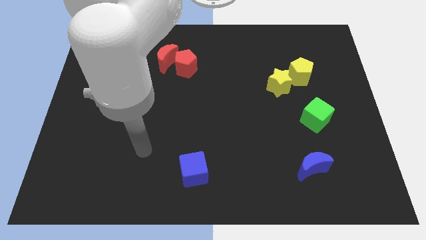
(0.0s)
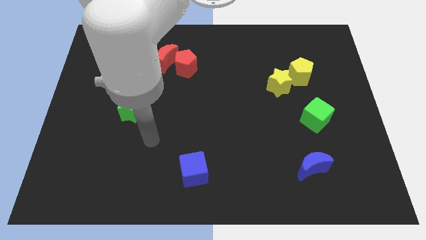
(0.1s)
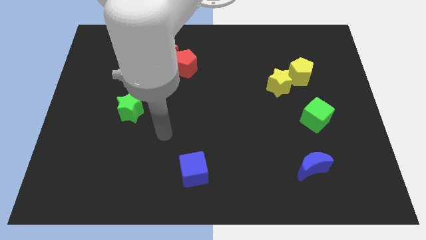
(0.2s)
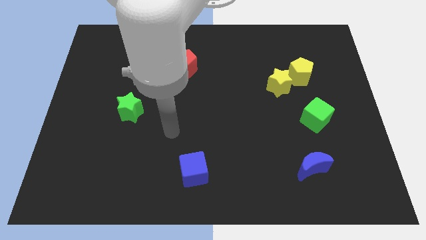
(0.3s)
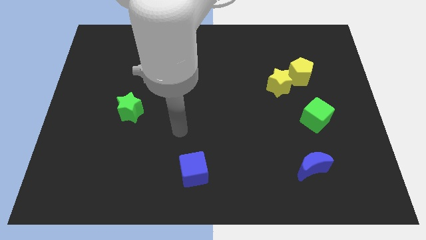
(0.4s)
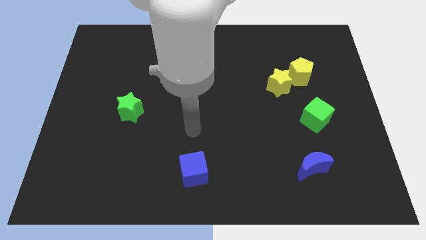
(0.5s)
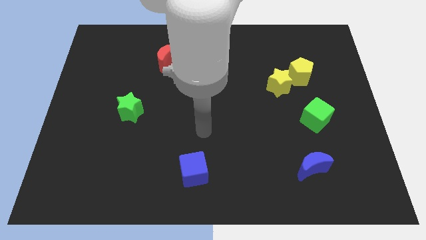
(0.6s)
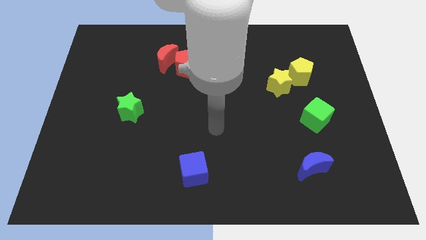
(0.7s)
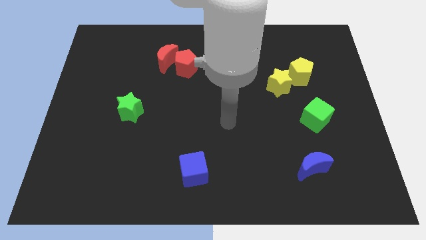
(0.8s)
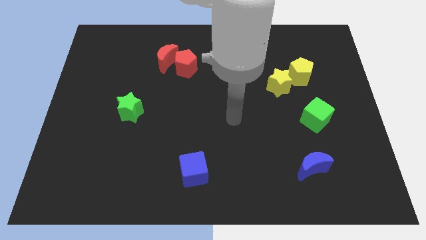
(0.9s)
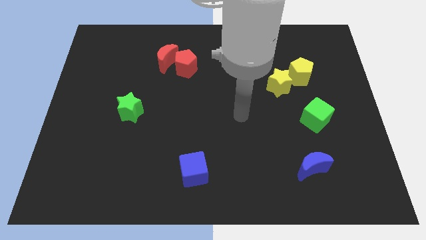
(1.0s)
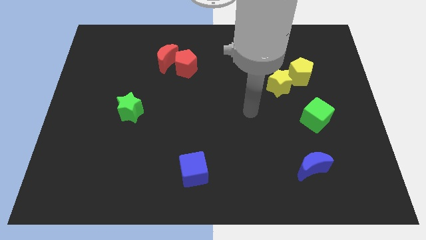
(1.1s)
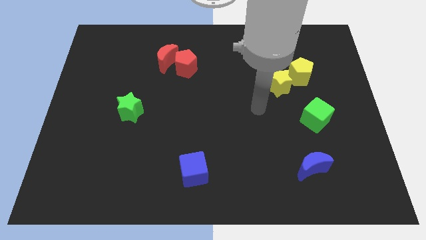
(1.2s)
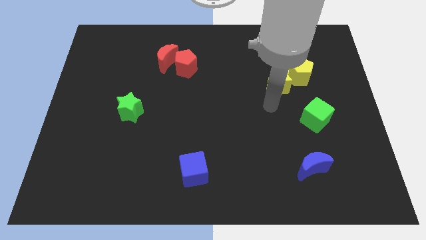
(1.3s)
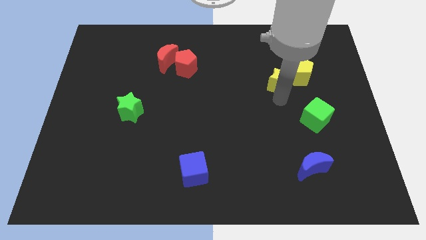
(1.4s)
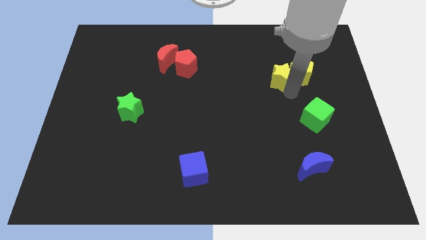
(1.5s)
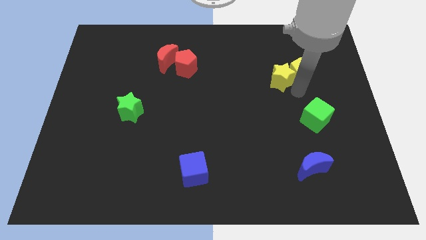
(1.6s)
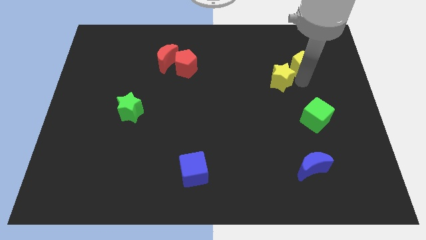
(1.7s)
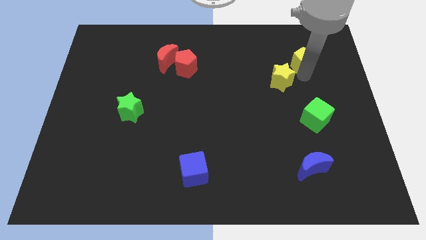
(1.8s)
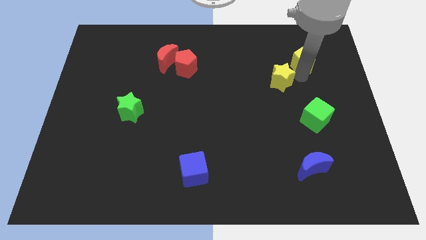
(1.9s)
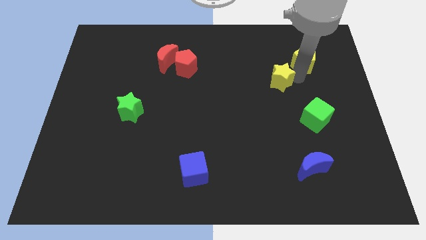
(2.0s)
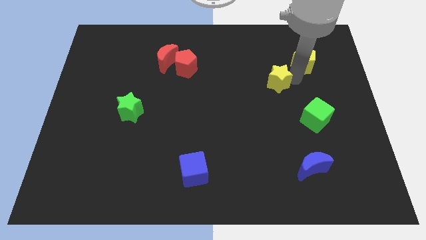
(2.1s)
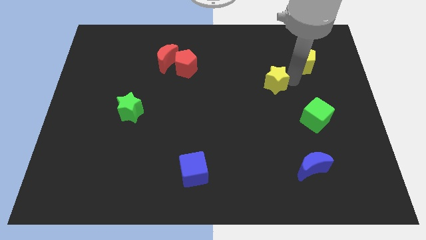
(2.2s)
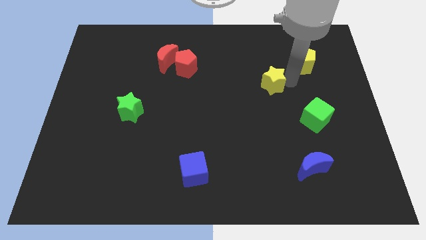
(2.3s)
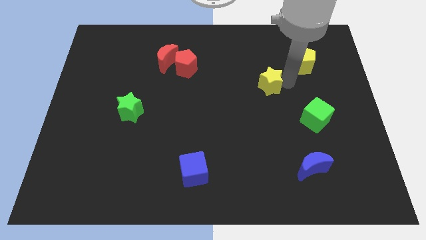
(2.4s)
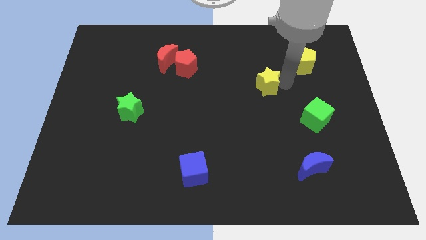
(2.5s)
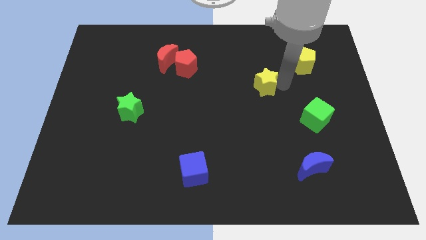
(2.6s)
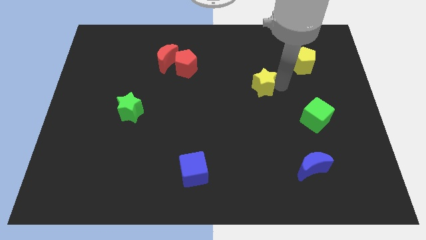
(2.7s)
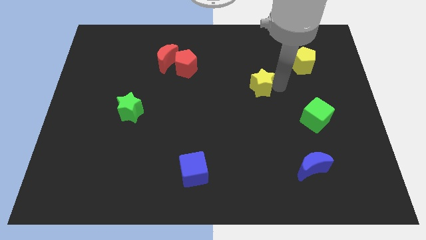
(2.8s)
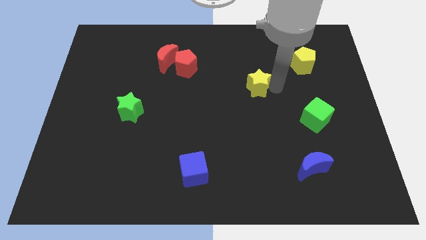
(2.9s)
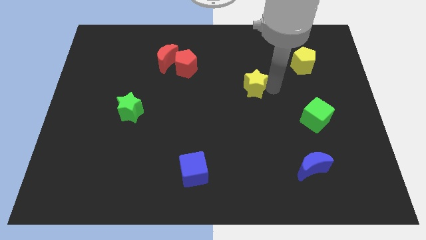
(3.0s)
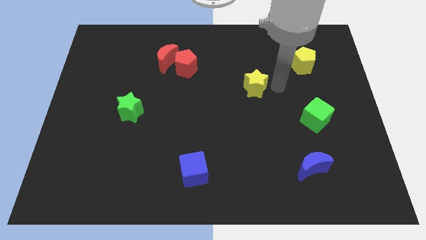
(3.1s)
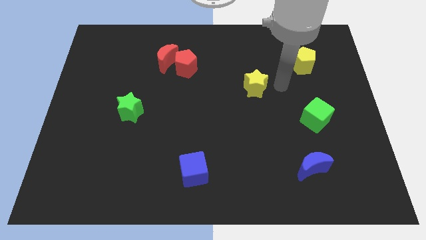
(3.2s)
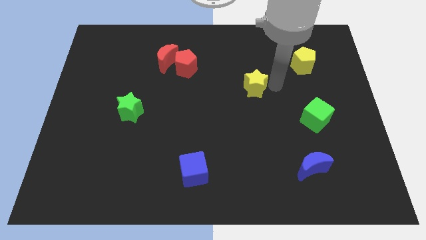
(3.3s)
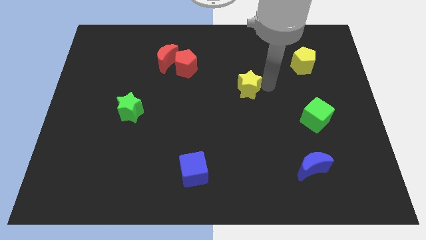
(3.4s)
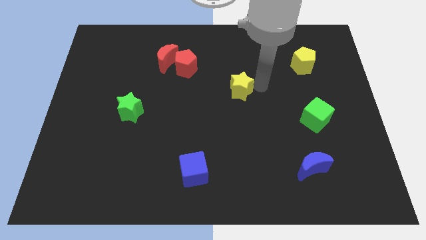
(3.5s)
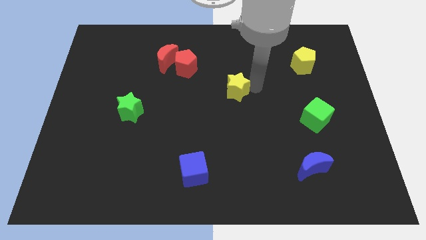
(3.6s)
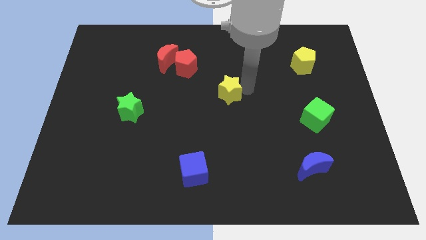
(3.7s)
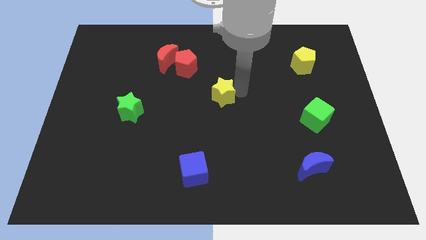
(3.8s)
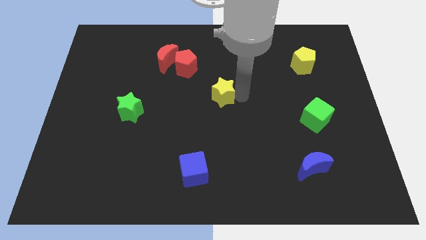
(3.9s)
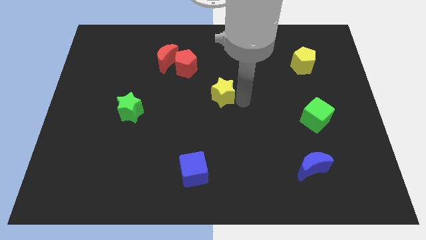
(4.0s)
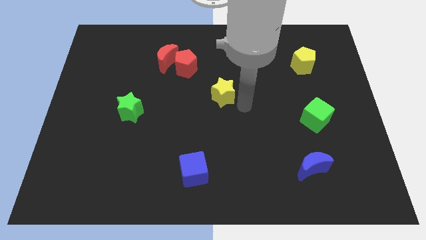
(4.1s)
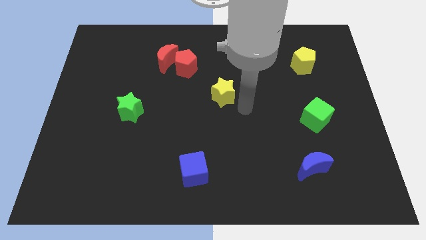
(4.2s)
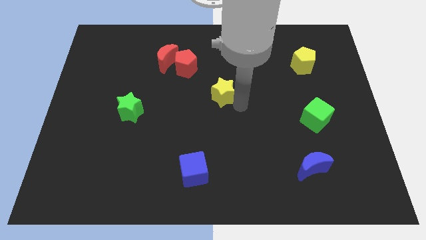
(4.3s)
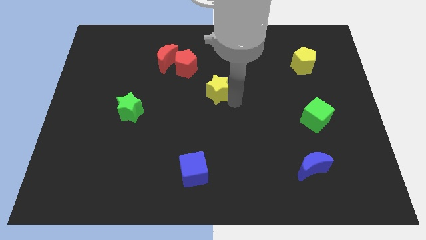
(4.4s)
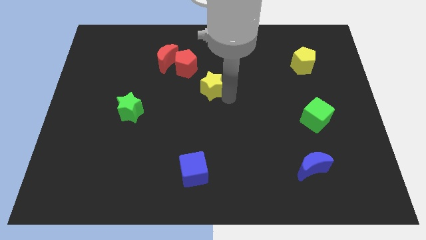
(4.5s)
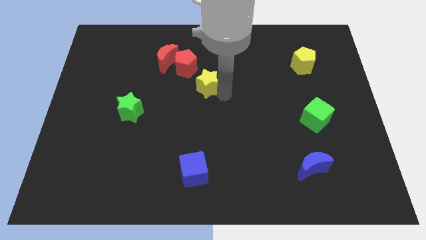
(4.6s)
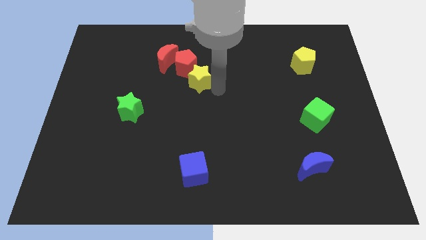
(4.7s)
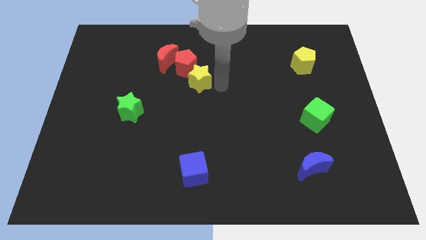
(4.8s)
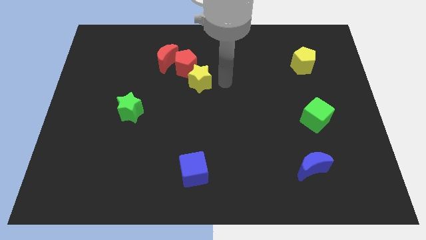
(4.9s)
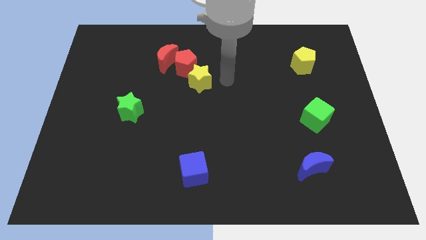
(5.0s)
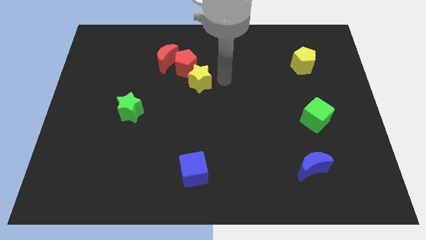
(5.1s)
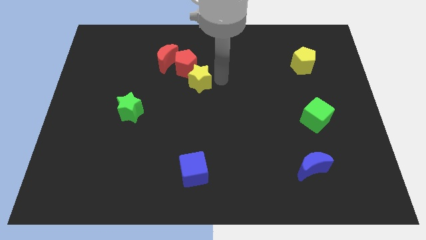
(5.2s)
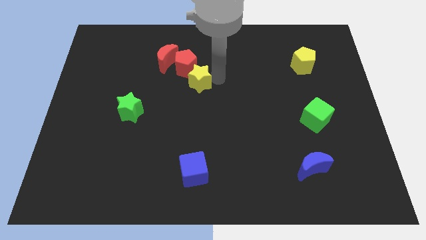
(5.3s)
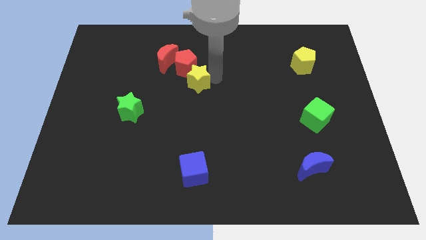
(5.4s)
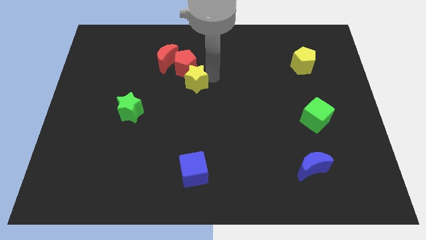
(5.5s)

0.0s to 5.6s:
push the yellow star to the left

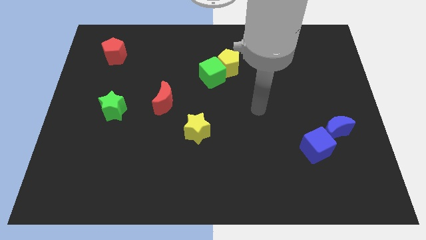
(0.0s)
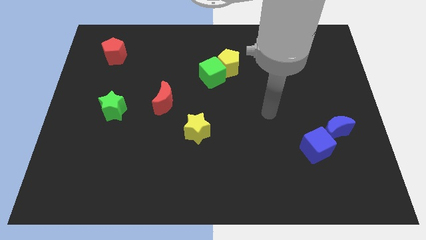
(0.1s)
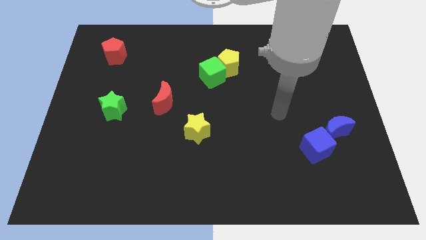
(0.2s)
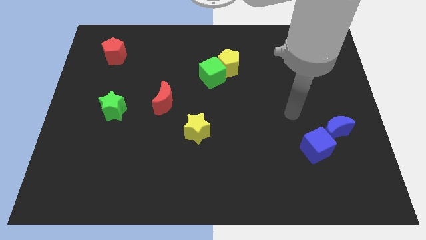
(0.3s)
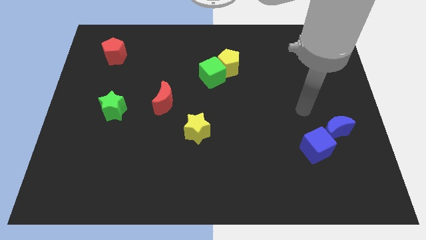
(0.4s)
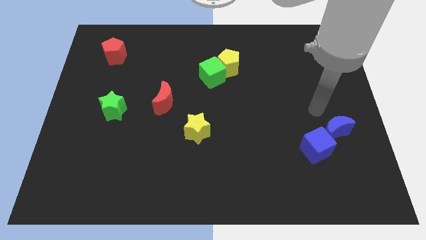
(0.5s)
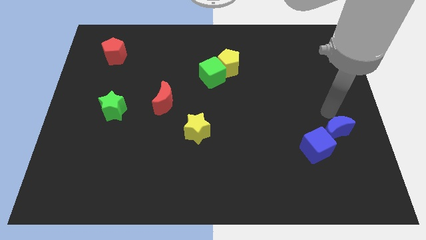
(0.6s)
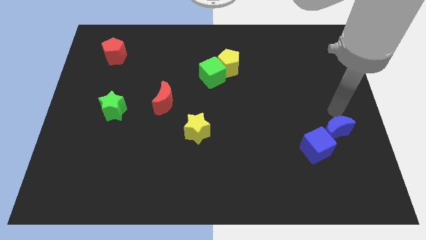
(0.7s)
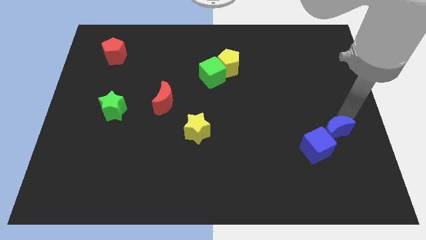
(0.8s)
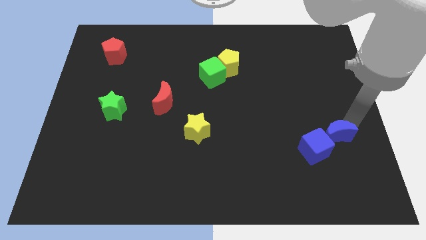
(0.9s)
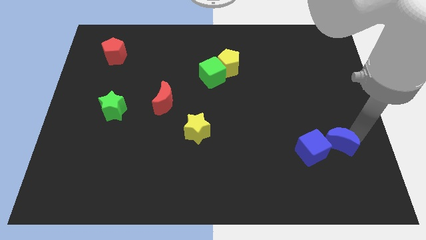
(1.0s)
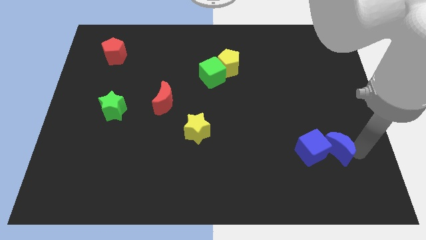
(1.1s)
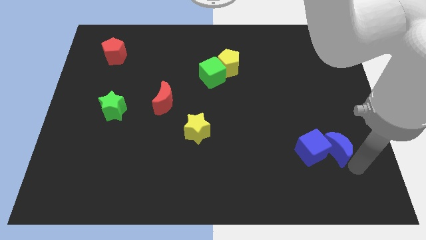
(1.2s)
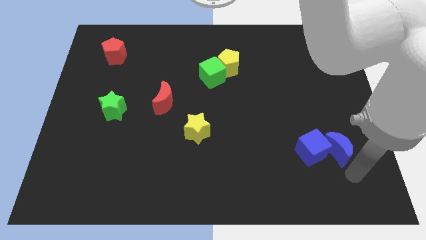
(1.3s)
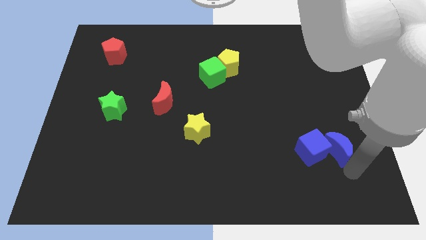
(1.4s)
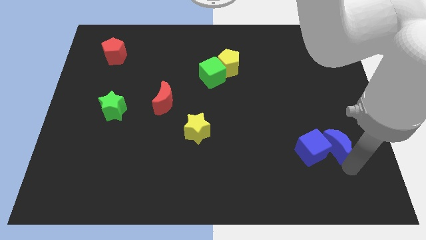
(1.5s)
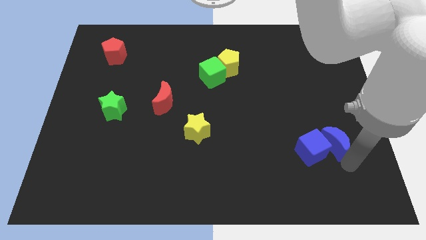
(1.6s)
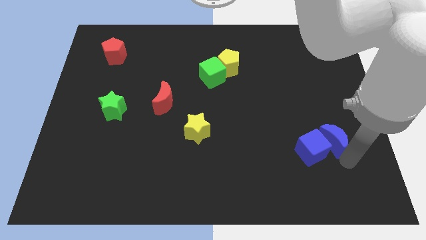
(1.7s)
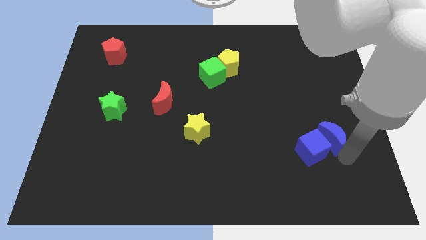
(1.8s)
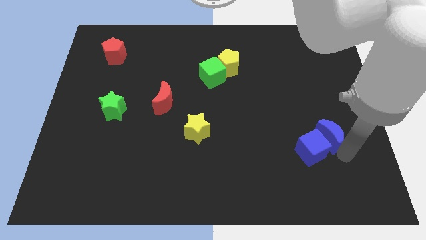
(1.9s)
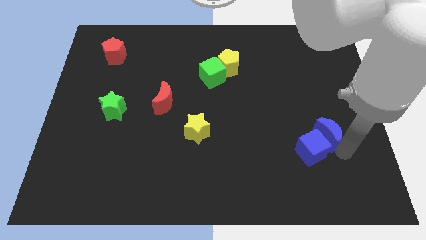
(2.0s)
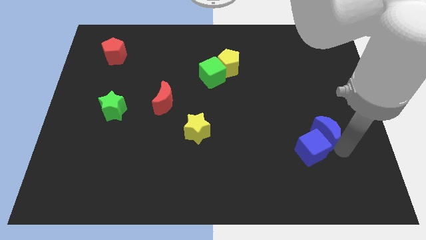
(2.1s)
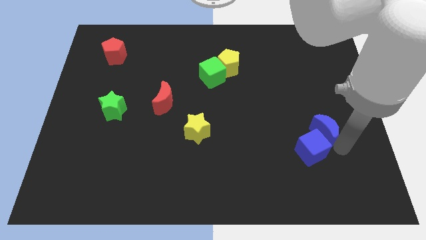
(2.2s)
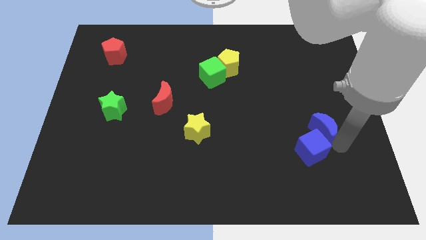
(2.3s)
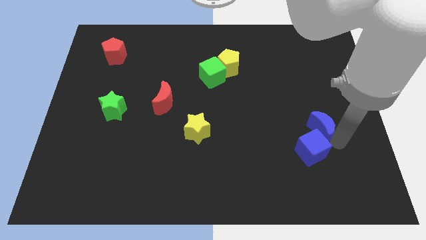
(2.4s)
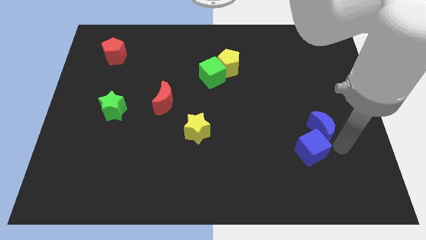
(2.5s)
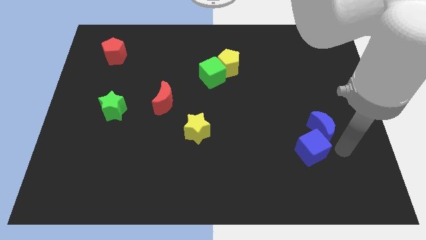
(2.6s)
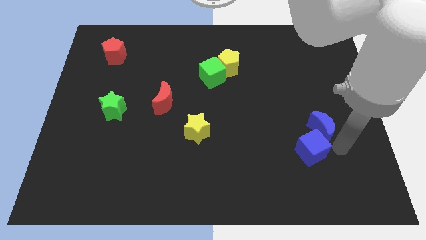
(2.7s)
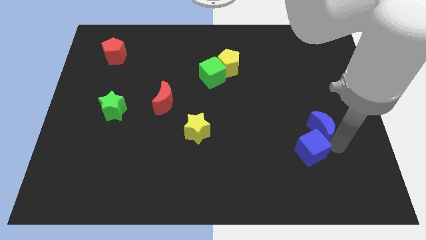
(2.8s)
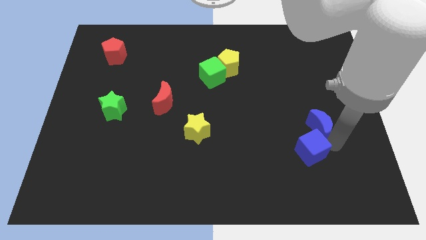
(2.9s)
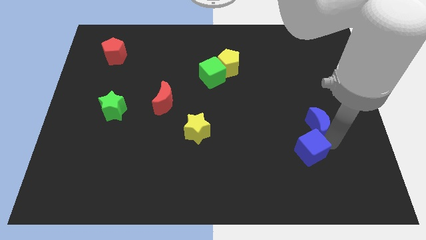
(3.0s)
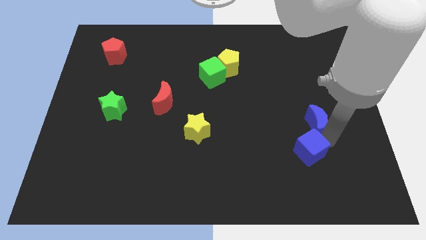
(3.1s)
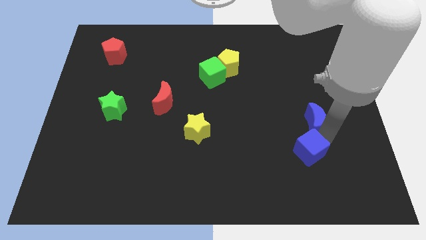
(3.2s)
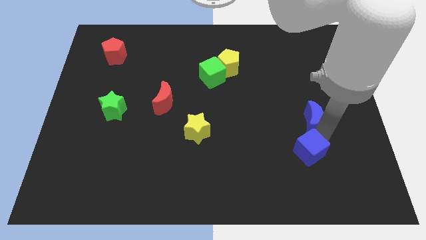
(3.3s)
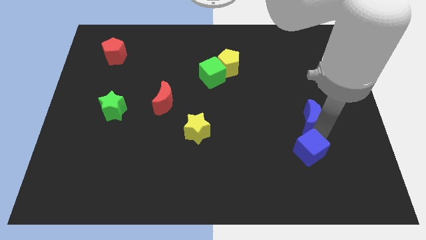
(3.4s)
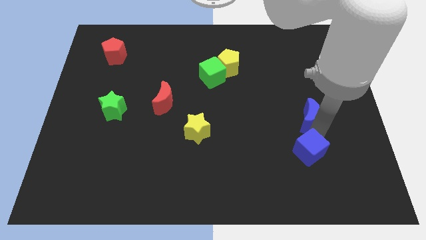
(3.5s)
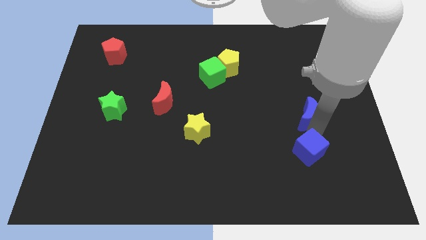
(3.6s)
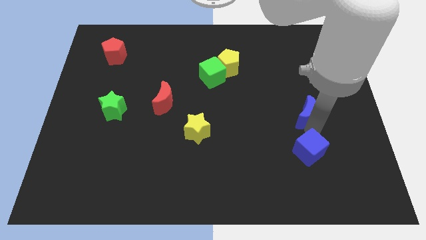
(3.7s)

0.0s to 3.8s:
slide the blue moon somewhat up and then left
